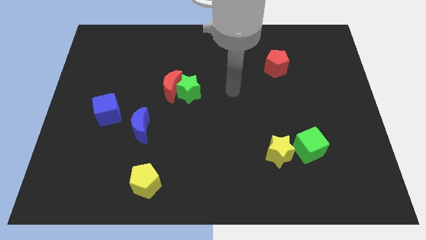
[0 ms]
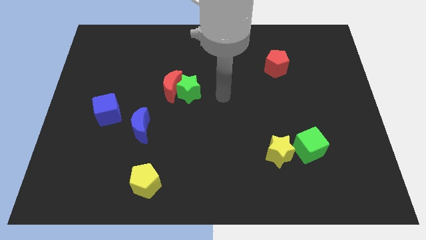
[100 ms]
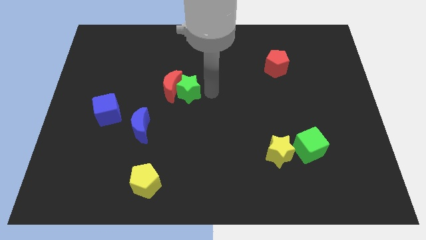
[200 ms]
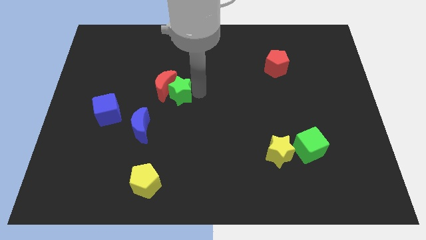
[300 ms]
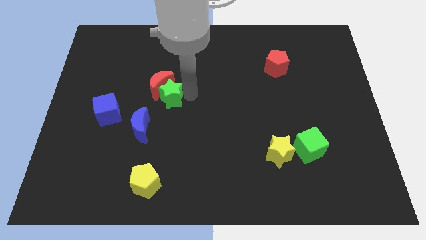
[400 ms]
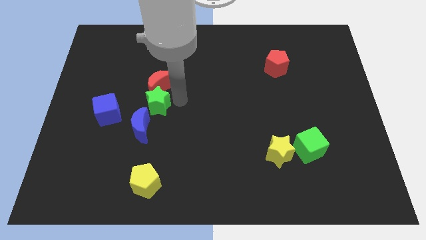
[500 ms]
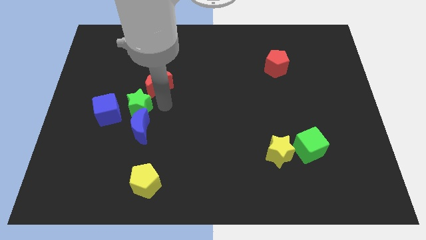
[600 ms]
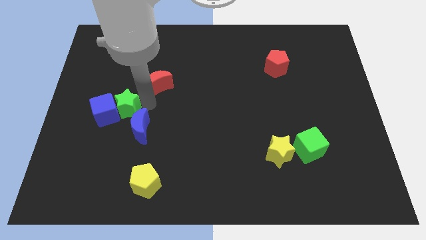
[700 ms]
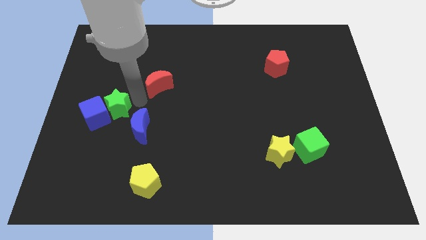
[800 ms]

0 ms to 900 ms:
pull the red moon apart from the green star

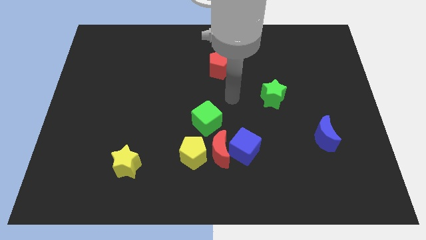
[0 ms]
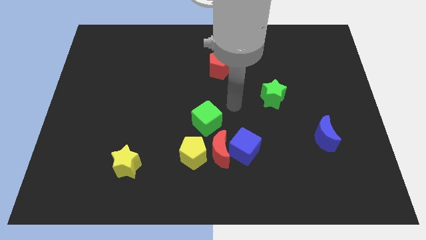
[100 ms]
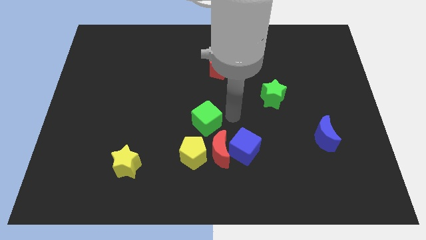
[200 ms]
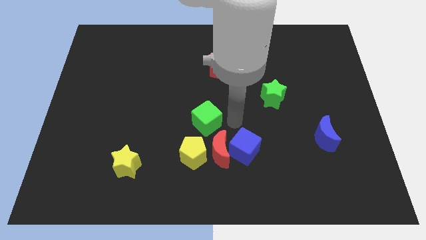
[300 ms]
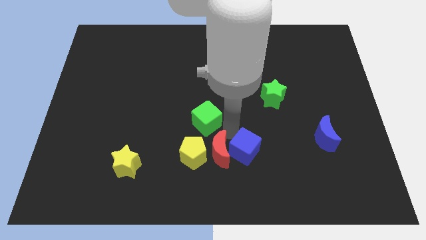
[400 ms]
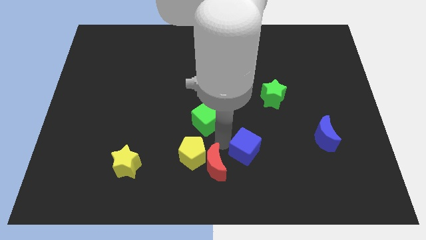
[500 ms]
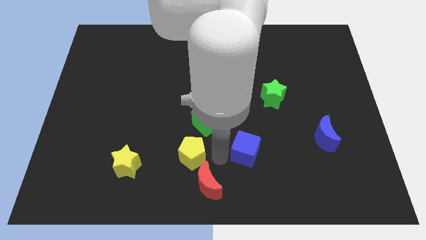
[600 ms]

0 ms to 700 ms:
move the blue cube away from the red moon

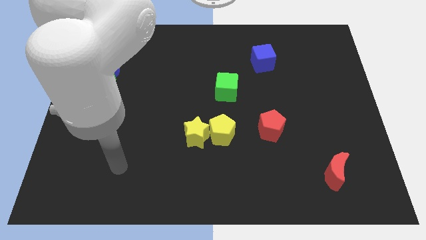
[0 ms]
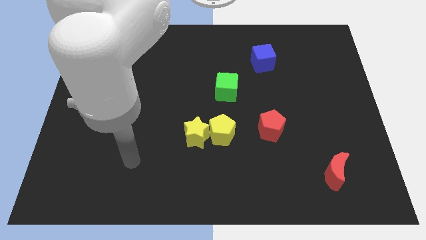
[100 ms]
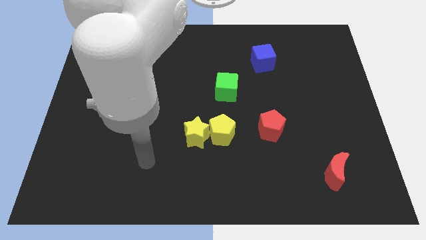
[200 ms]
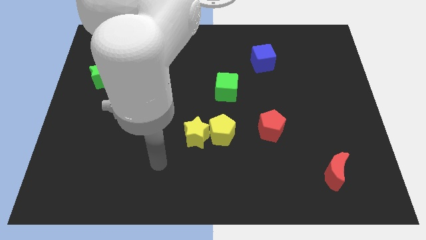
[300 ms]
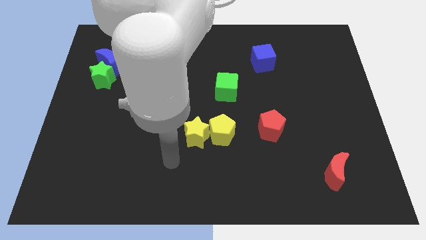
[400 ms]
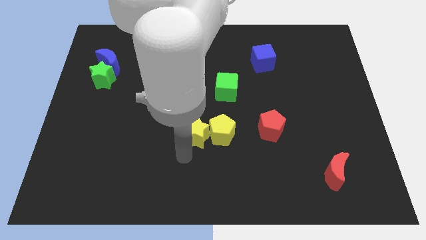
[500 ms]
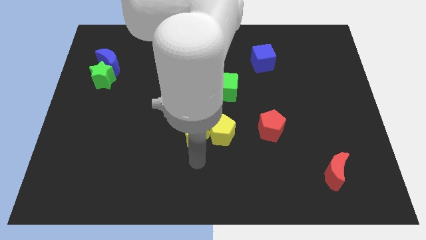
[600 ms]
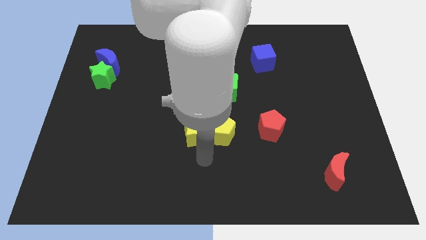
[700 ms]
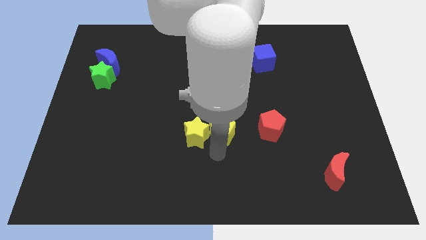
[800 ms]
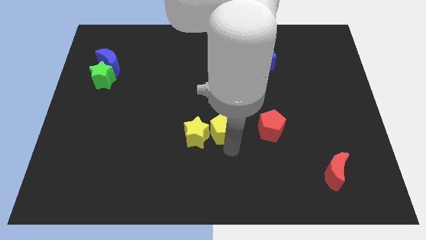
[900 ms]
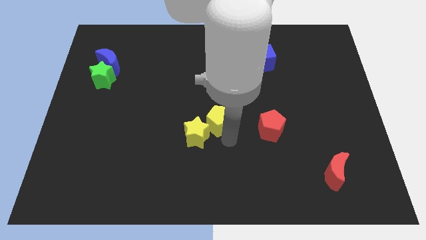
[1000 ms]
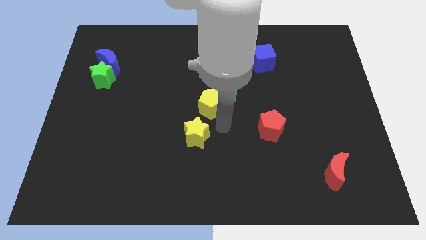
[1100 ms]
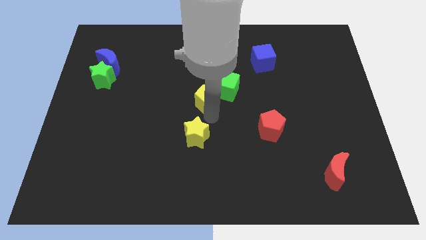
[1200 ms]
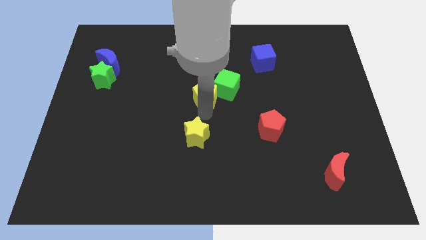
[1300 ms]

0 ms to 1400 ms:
move the yellow star away from the yellow pentagon

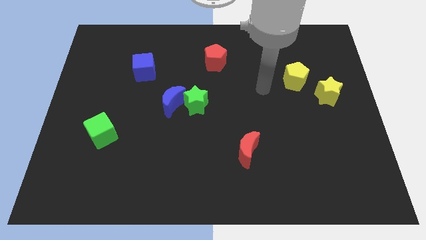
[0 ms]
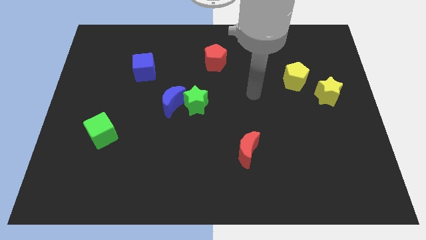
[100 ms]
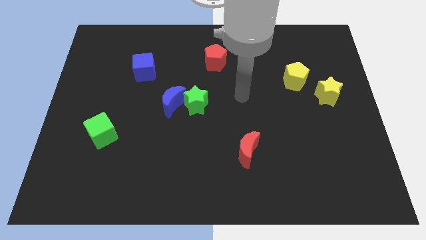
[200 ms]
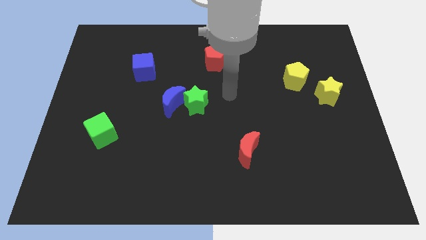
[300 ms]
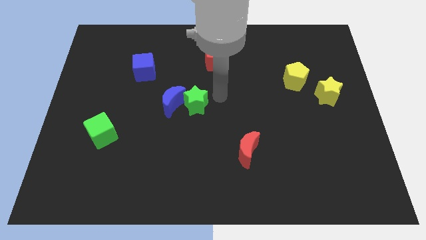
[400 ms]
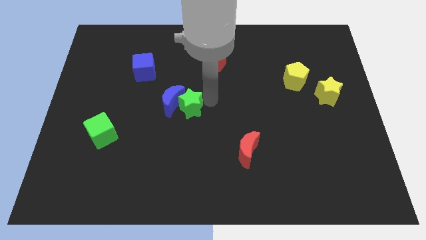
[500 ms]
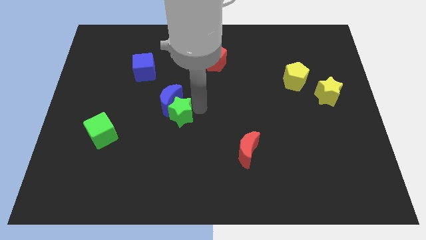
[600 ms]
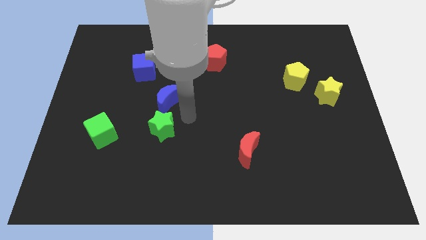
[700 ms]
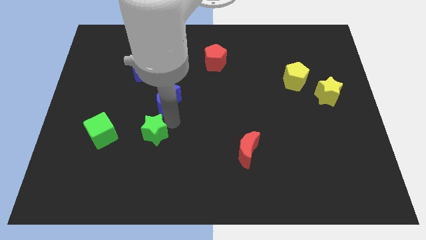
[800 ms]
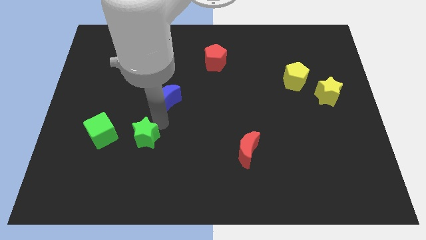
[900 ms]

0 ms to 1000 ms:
pull the blue moon apart from the green star

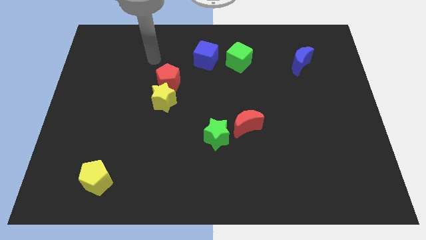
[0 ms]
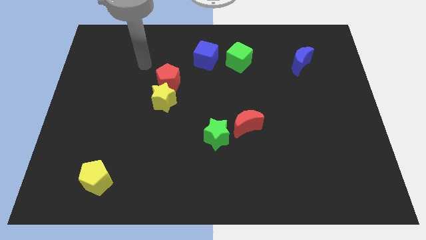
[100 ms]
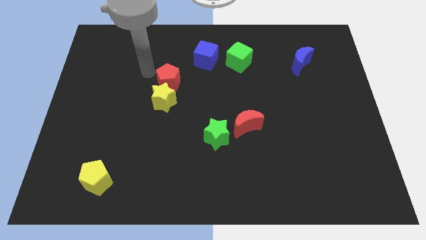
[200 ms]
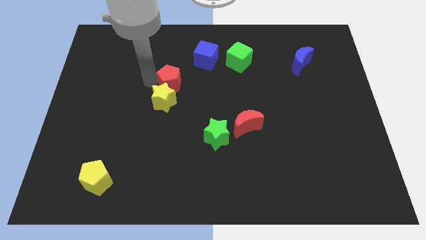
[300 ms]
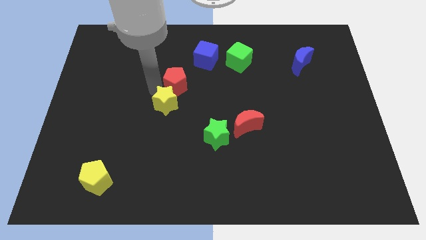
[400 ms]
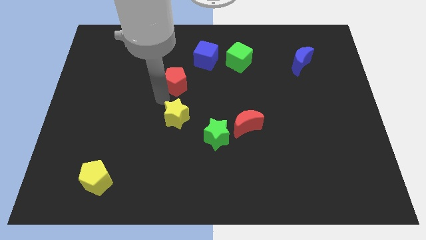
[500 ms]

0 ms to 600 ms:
separate the red pentagon from the yellow star

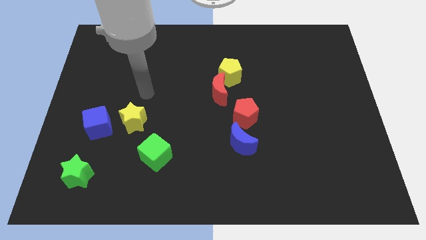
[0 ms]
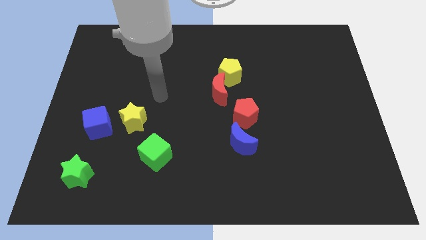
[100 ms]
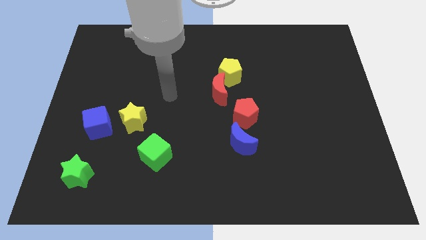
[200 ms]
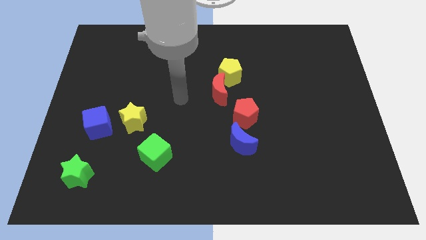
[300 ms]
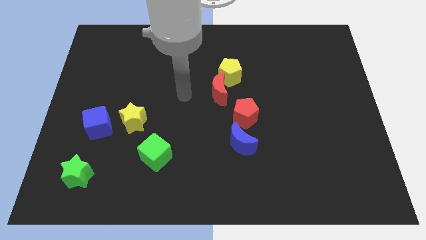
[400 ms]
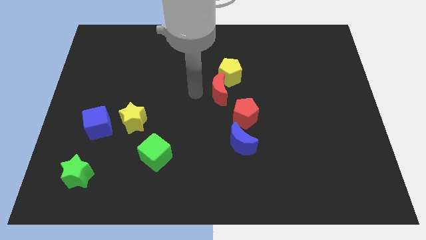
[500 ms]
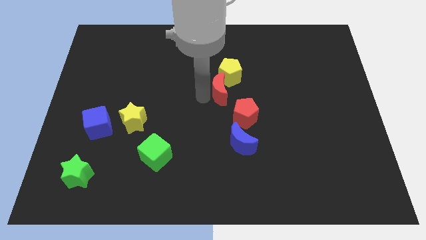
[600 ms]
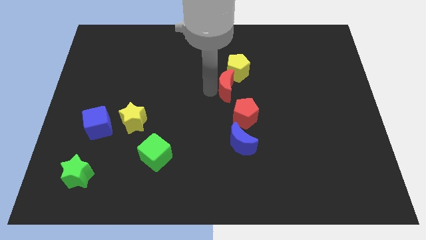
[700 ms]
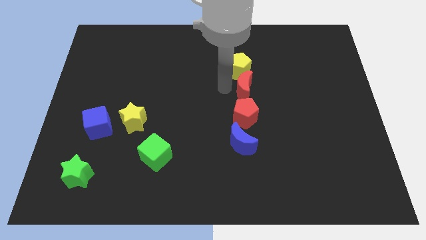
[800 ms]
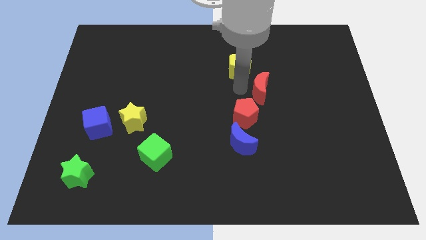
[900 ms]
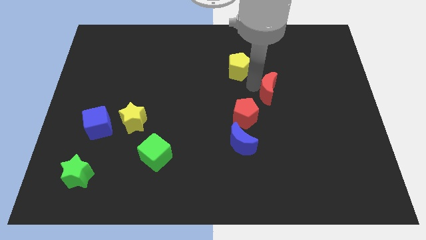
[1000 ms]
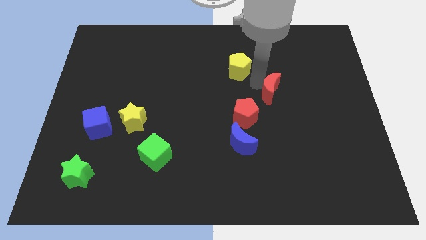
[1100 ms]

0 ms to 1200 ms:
move the yellow pentagon away from the red moon

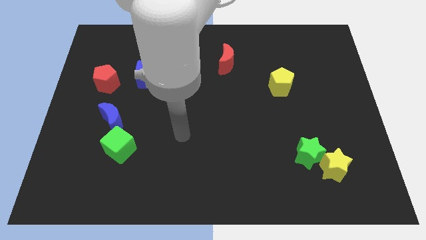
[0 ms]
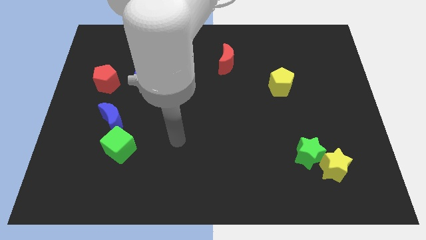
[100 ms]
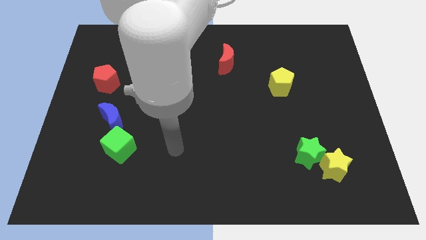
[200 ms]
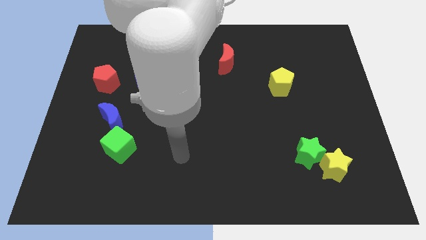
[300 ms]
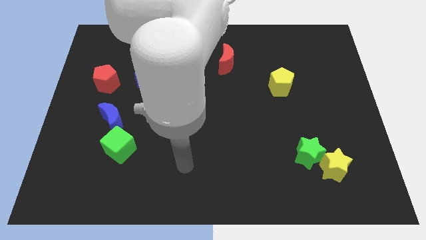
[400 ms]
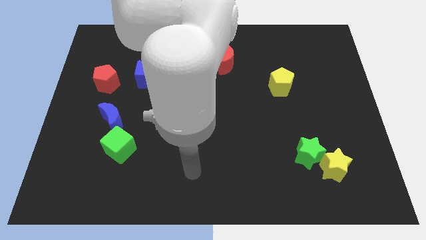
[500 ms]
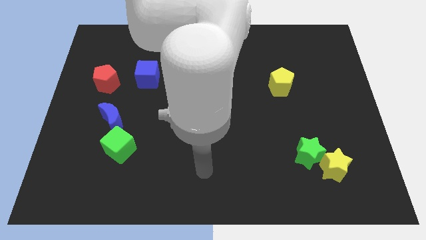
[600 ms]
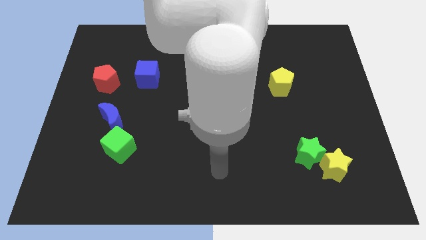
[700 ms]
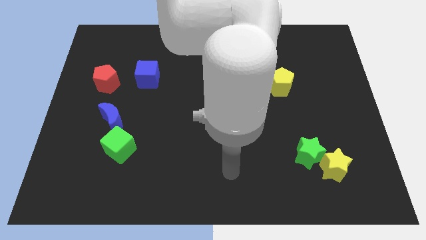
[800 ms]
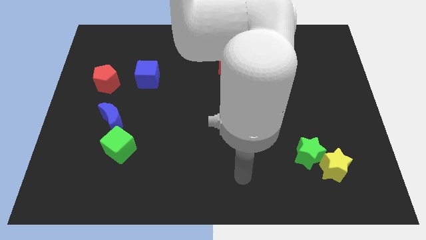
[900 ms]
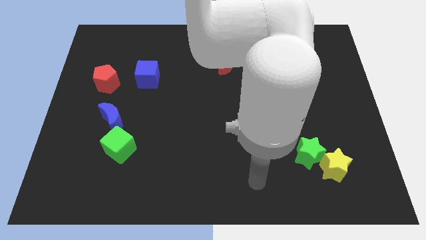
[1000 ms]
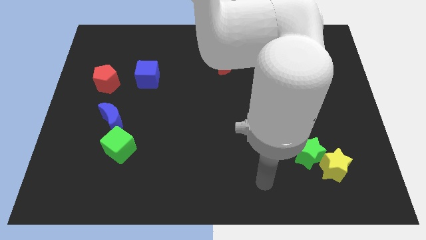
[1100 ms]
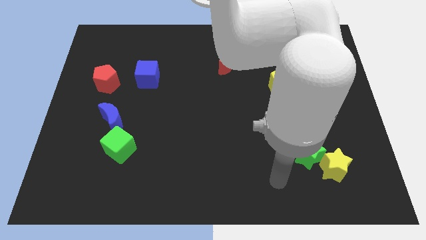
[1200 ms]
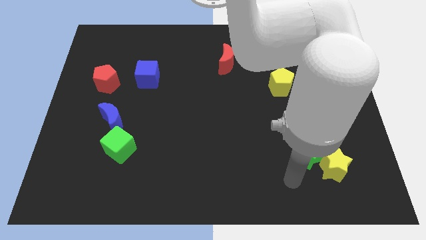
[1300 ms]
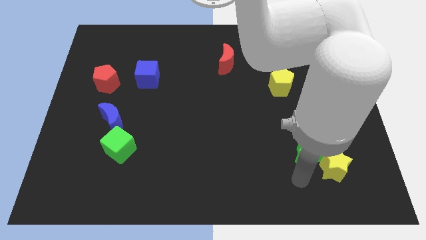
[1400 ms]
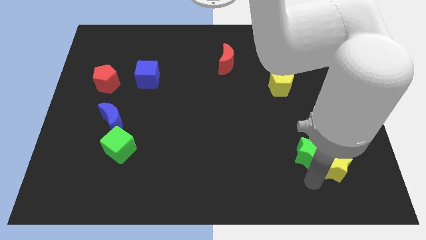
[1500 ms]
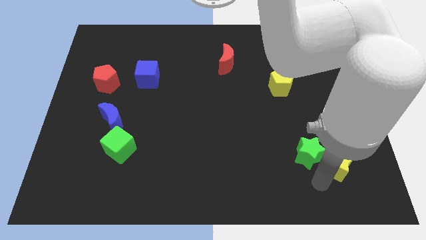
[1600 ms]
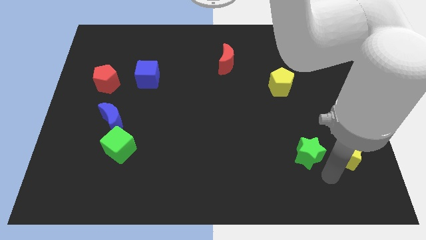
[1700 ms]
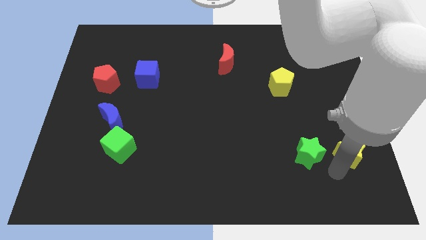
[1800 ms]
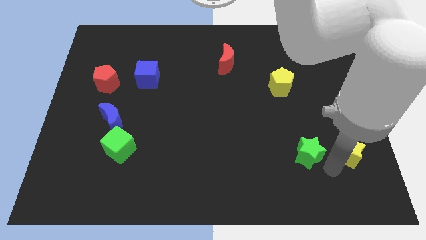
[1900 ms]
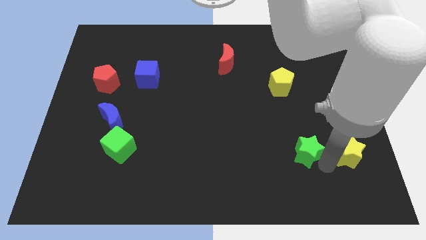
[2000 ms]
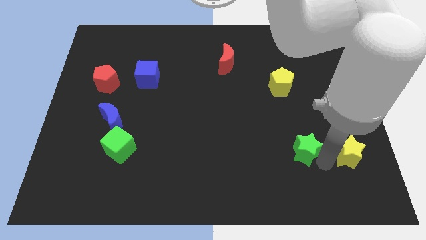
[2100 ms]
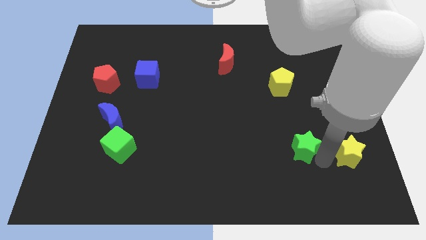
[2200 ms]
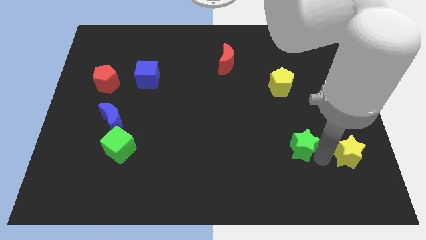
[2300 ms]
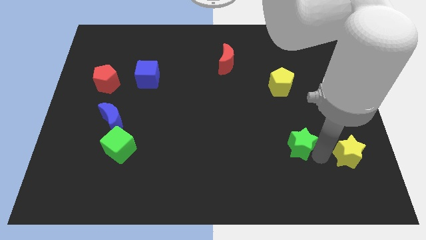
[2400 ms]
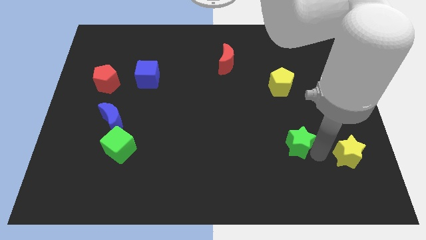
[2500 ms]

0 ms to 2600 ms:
pull the green star apart from the yellow star

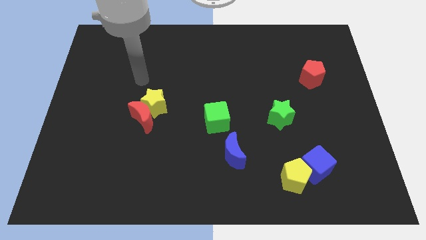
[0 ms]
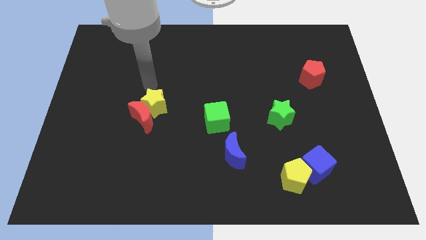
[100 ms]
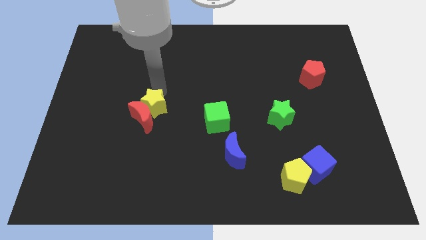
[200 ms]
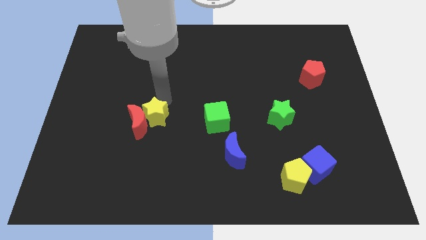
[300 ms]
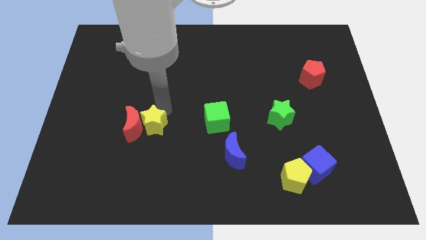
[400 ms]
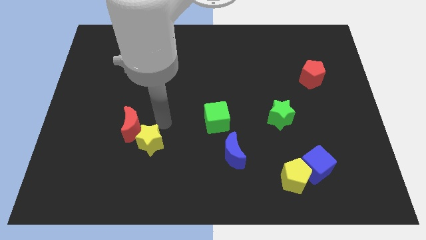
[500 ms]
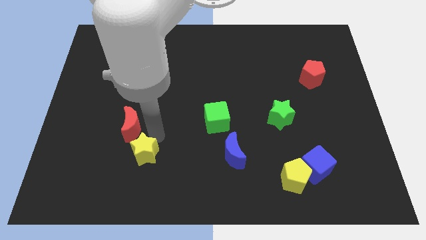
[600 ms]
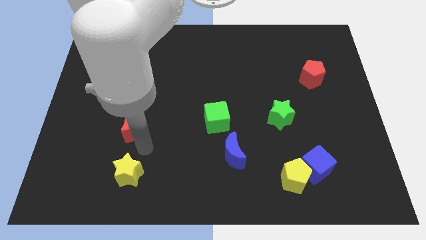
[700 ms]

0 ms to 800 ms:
pull the red moon apart from the yellow star

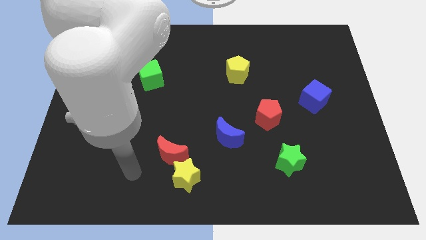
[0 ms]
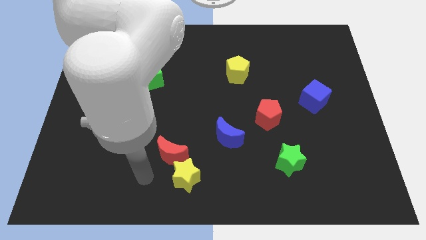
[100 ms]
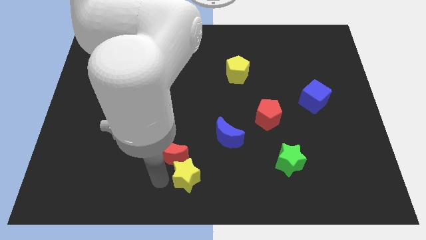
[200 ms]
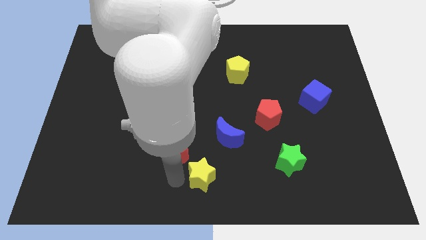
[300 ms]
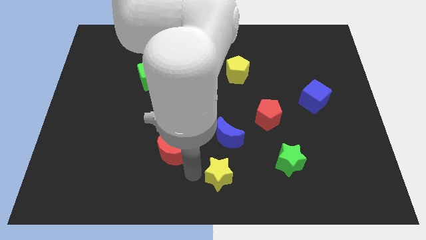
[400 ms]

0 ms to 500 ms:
move the red moon away from the yellow star
